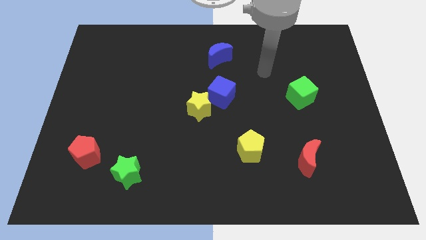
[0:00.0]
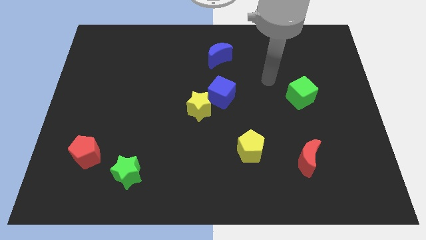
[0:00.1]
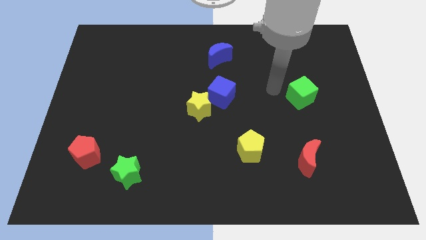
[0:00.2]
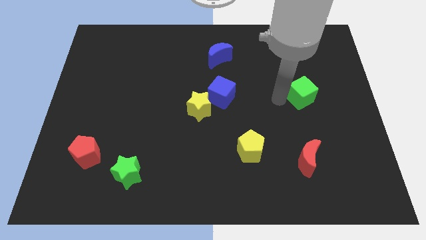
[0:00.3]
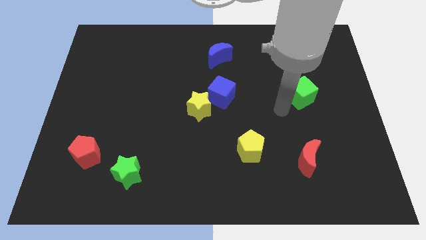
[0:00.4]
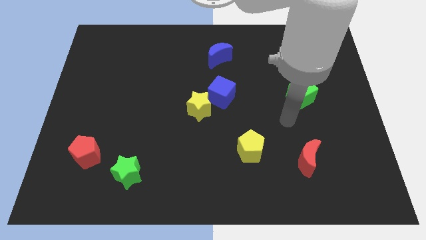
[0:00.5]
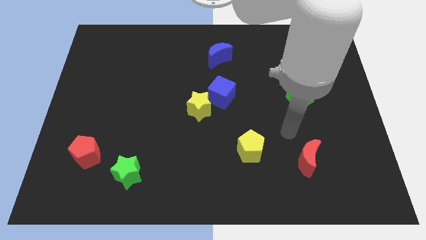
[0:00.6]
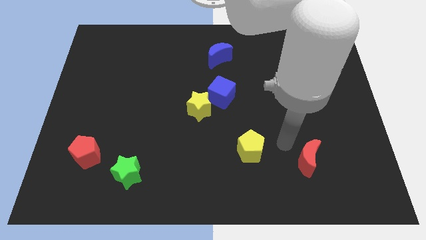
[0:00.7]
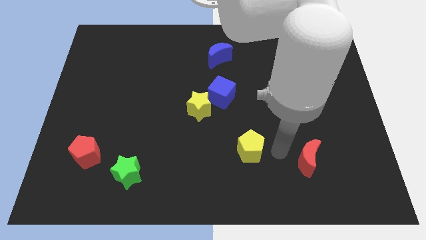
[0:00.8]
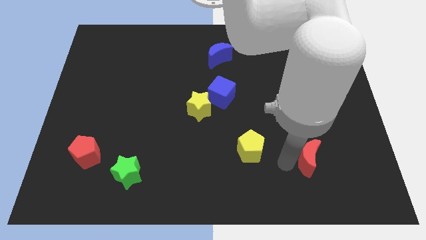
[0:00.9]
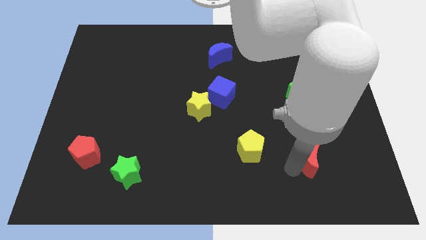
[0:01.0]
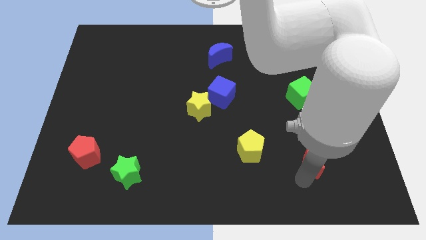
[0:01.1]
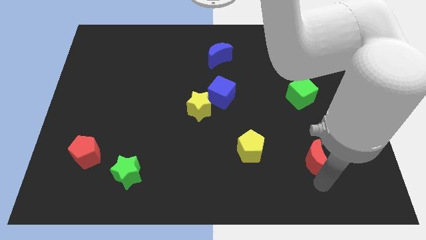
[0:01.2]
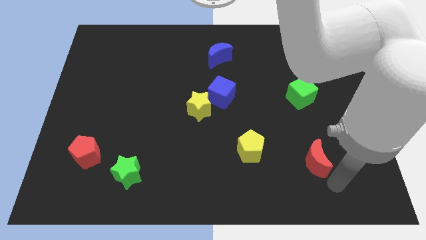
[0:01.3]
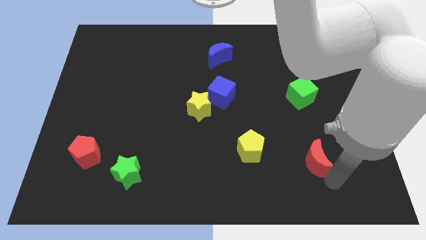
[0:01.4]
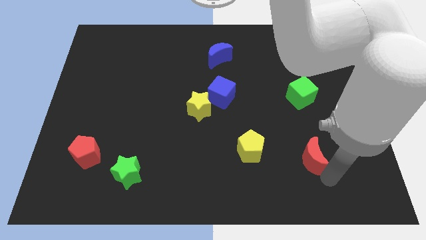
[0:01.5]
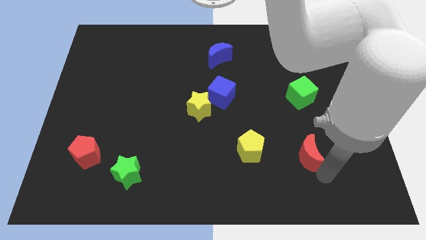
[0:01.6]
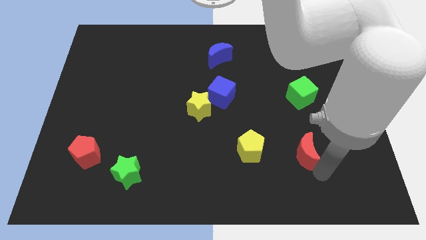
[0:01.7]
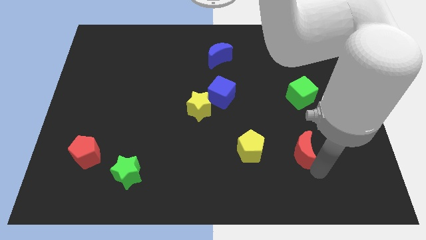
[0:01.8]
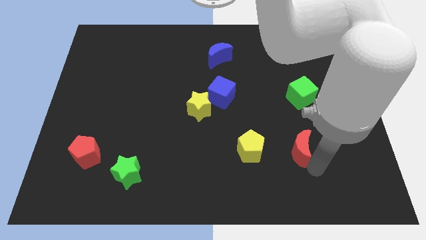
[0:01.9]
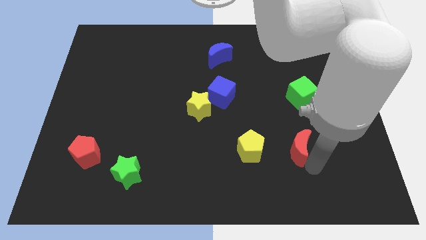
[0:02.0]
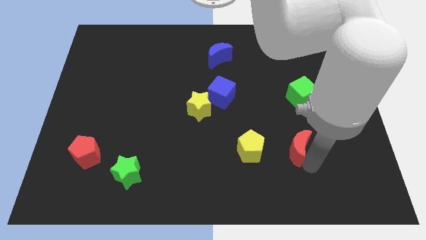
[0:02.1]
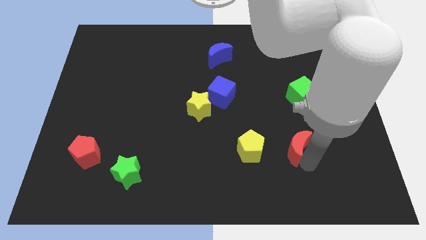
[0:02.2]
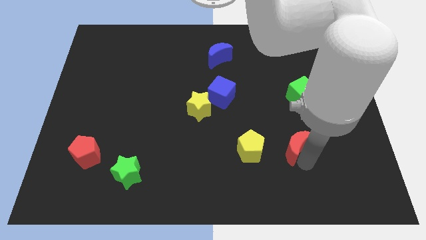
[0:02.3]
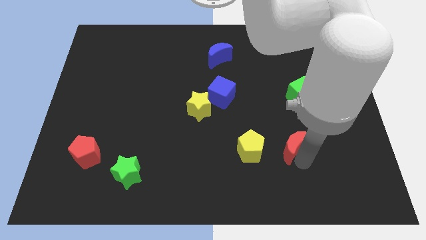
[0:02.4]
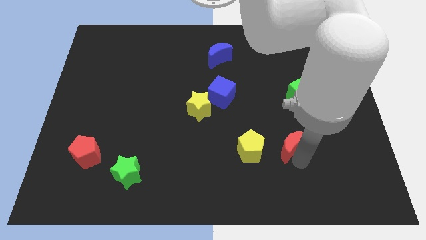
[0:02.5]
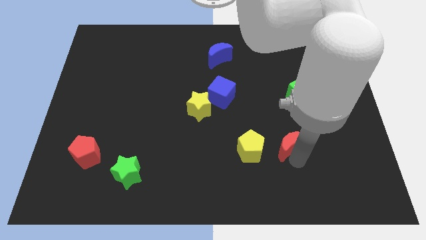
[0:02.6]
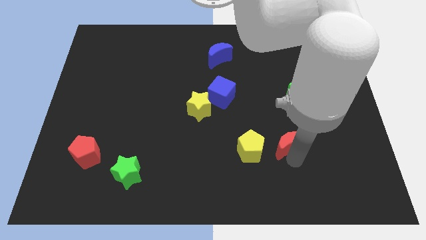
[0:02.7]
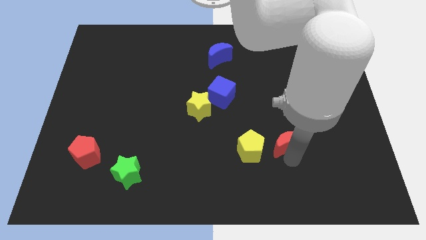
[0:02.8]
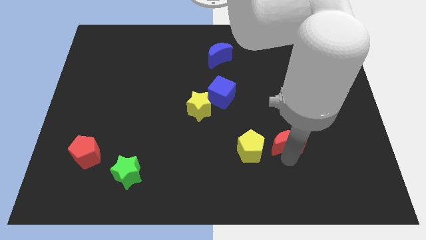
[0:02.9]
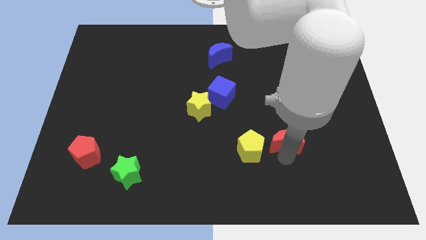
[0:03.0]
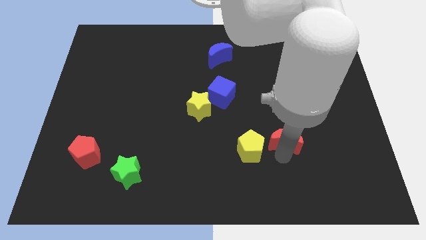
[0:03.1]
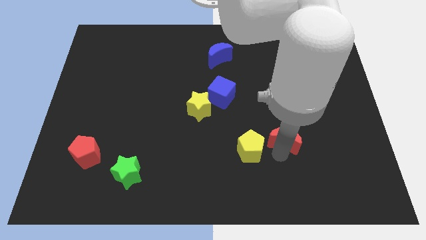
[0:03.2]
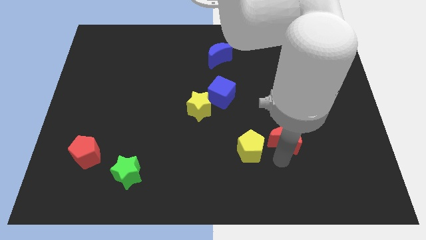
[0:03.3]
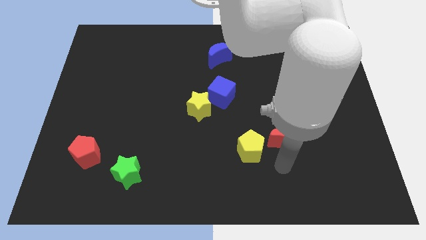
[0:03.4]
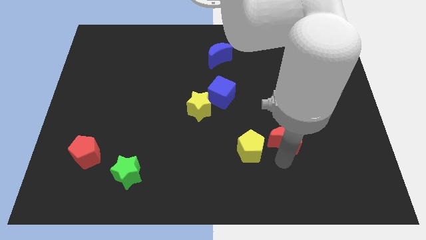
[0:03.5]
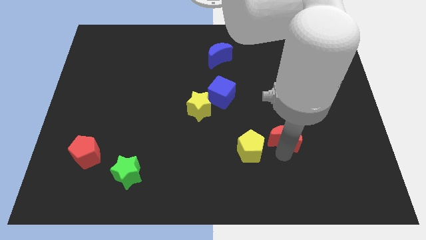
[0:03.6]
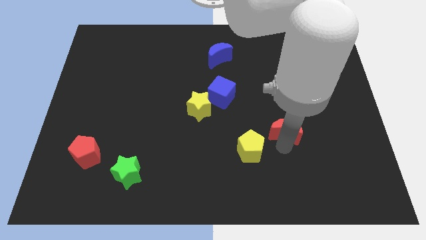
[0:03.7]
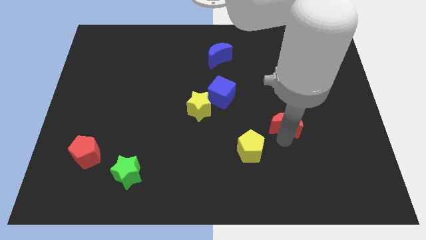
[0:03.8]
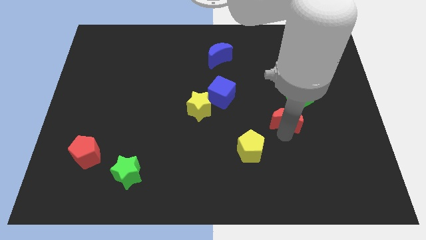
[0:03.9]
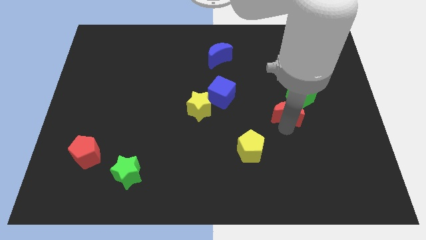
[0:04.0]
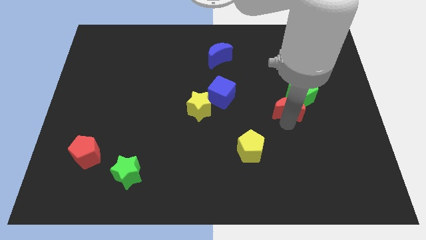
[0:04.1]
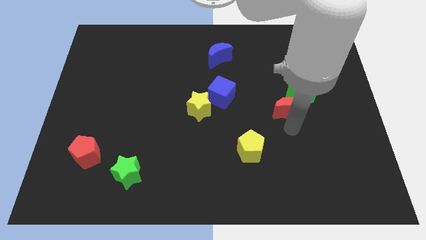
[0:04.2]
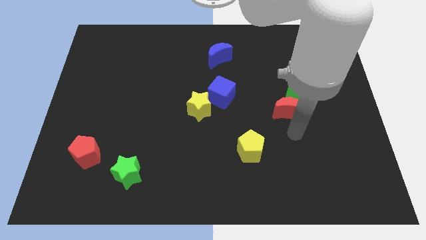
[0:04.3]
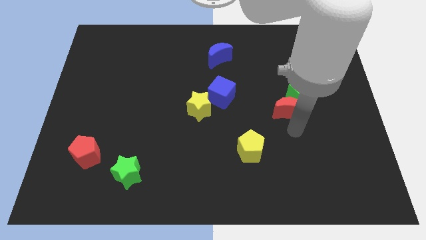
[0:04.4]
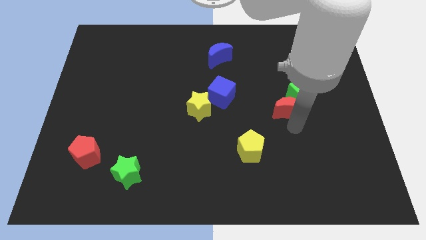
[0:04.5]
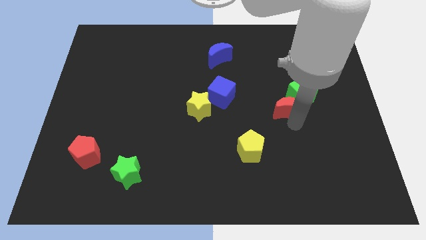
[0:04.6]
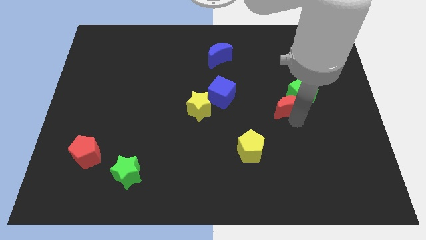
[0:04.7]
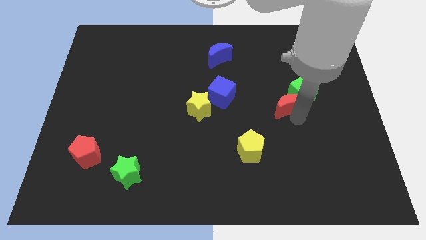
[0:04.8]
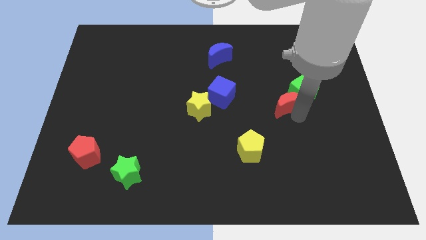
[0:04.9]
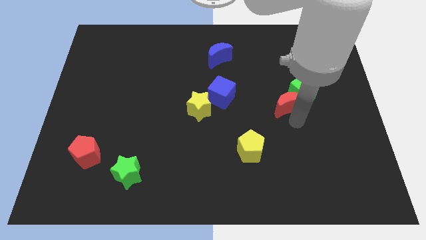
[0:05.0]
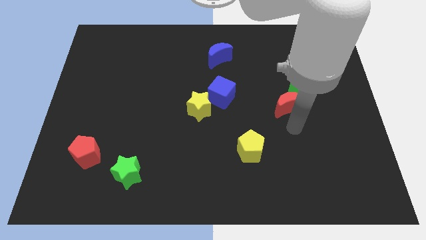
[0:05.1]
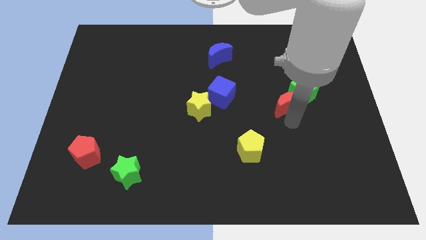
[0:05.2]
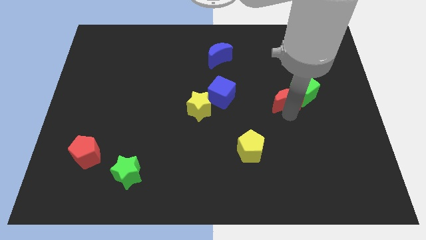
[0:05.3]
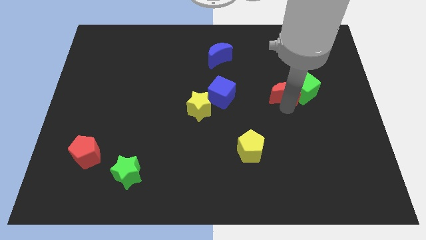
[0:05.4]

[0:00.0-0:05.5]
put the red moon diagonally up and to the left of the green cube

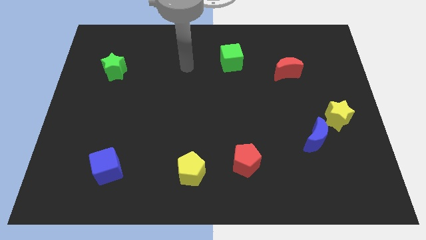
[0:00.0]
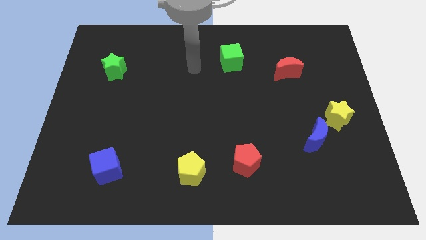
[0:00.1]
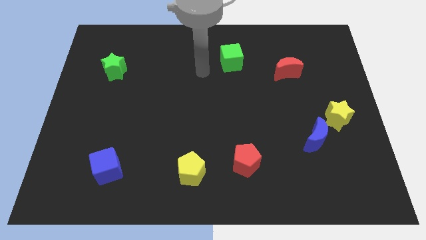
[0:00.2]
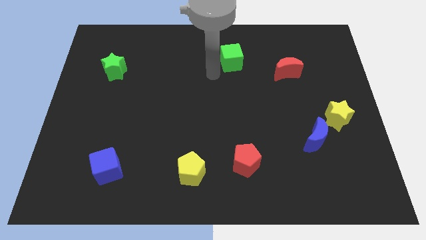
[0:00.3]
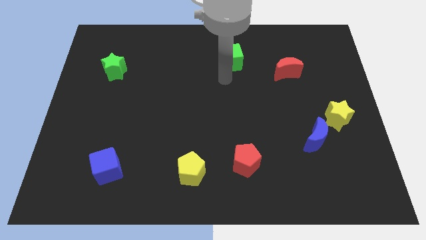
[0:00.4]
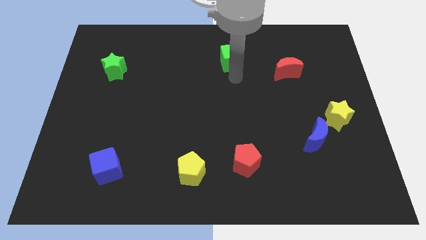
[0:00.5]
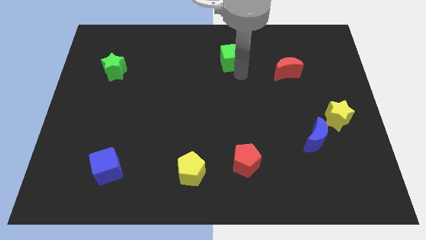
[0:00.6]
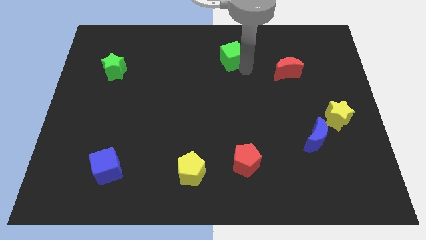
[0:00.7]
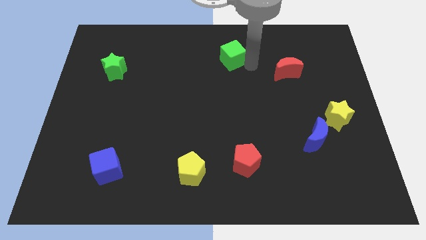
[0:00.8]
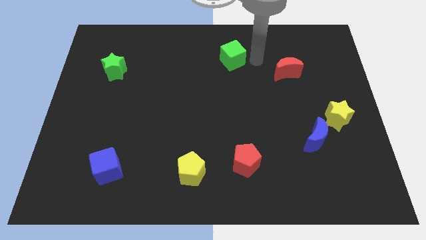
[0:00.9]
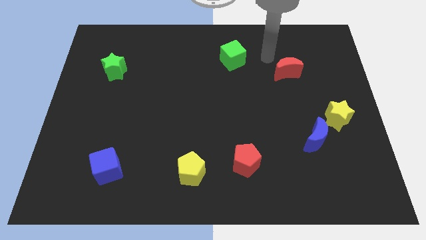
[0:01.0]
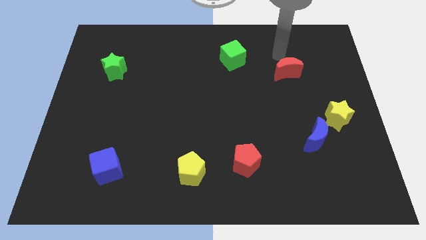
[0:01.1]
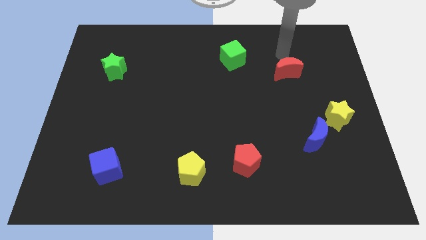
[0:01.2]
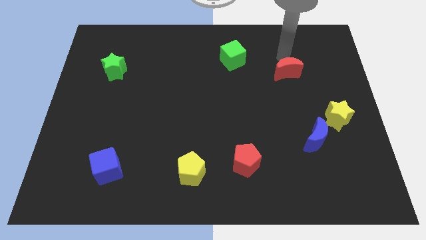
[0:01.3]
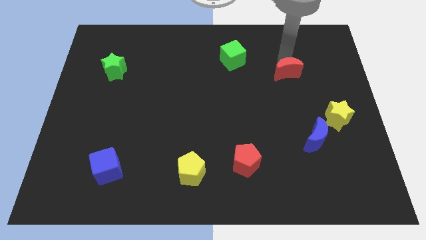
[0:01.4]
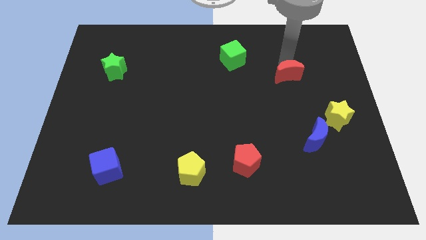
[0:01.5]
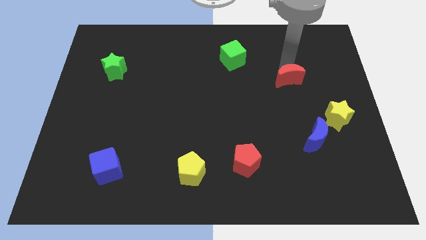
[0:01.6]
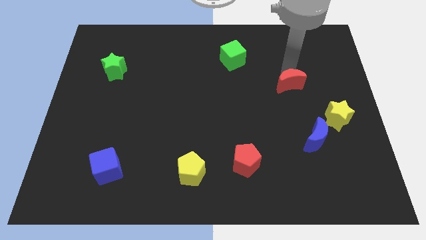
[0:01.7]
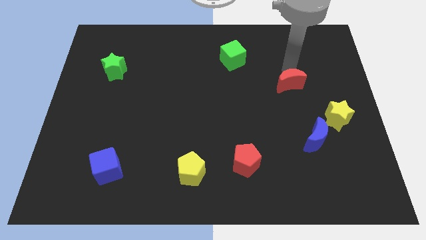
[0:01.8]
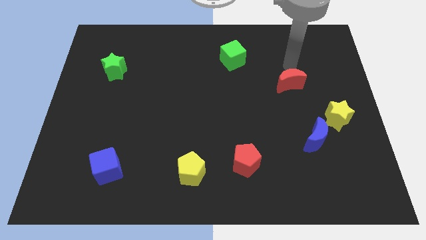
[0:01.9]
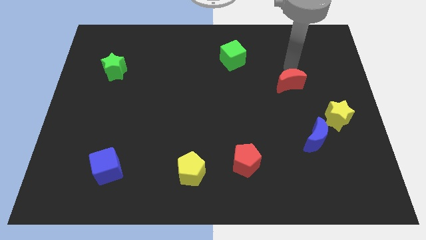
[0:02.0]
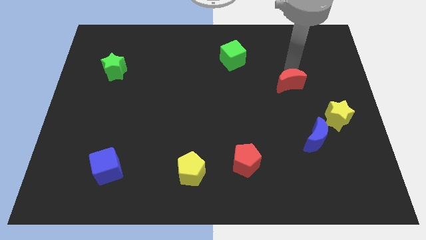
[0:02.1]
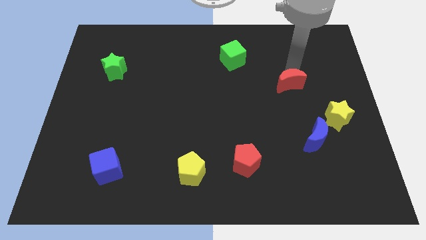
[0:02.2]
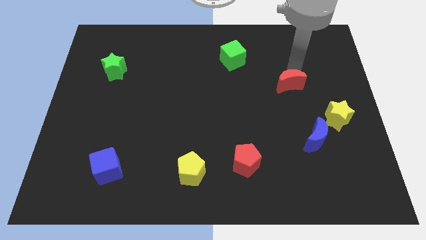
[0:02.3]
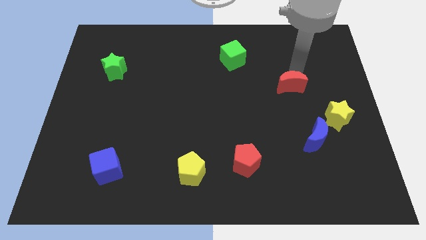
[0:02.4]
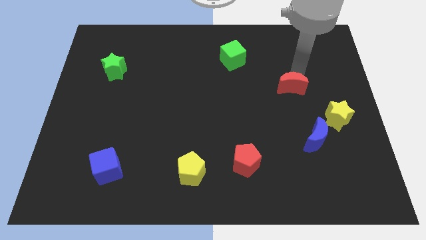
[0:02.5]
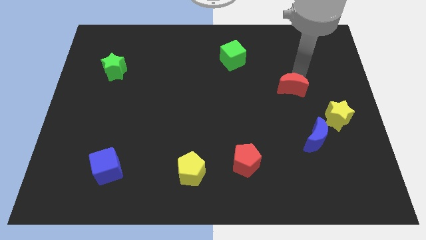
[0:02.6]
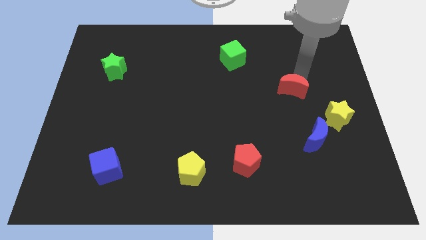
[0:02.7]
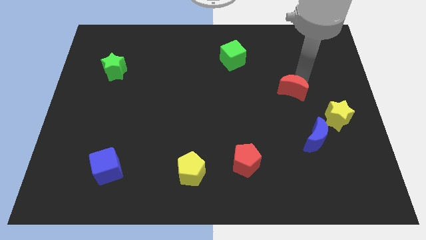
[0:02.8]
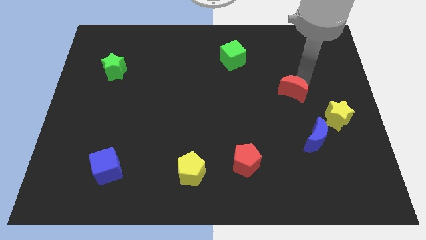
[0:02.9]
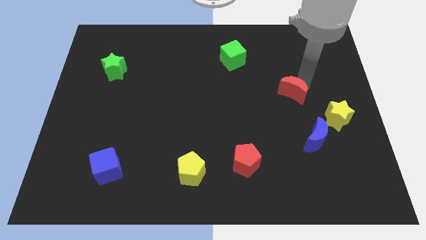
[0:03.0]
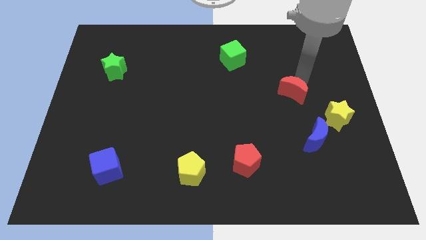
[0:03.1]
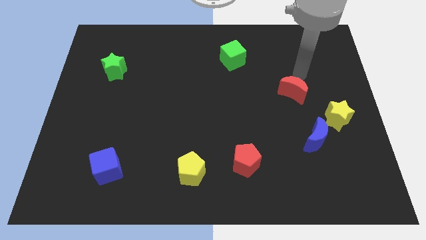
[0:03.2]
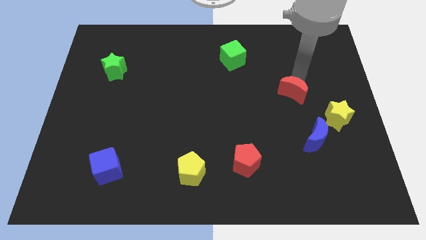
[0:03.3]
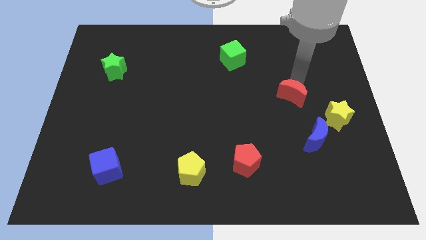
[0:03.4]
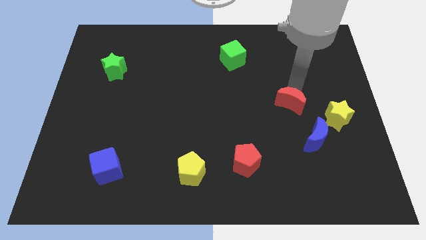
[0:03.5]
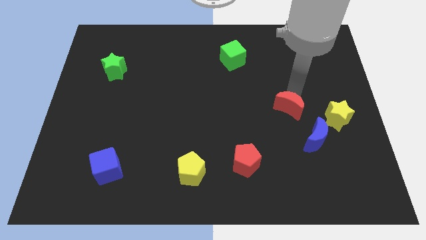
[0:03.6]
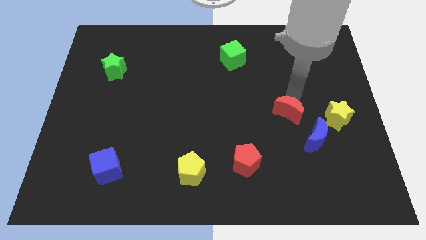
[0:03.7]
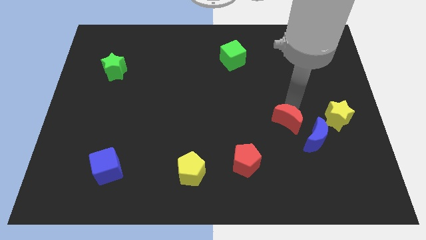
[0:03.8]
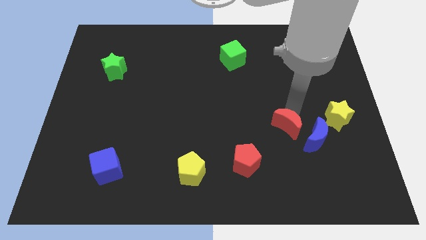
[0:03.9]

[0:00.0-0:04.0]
slide the red moon just left of the blue moon
